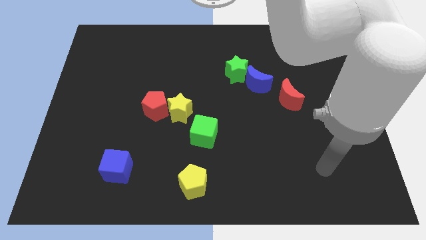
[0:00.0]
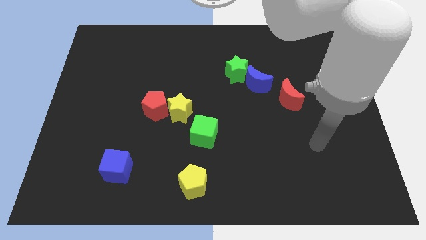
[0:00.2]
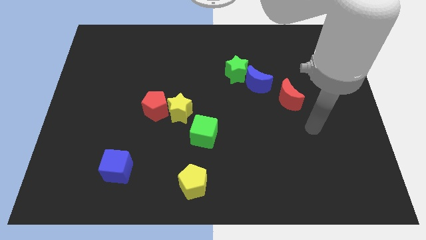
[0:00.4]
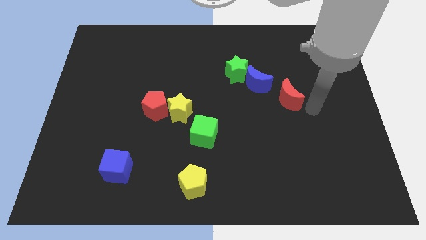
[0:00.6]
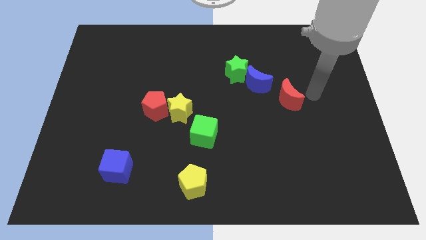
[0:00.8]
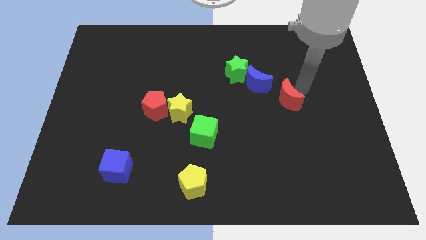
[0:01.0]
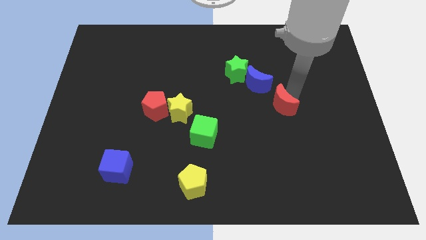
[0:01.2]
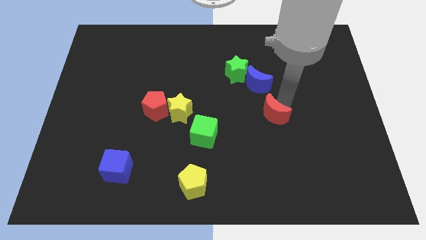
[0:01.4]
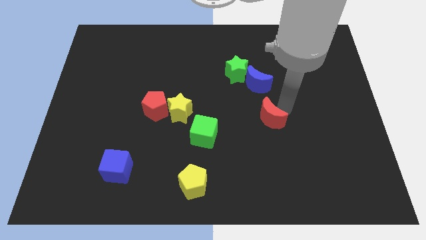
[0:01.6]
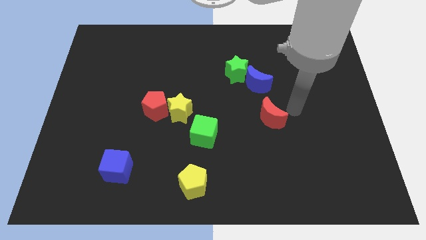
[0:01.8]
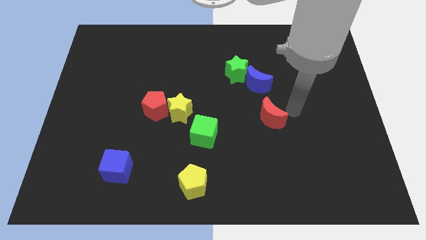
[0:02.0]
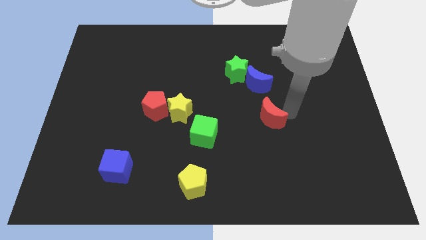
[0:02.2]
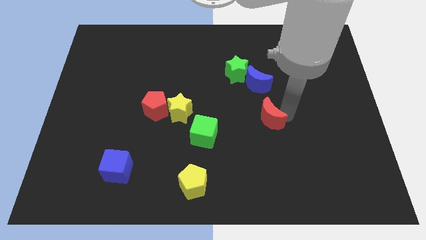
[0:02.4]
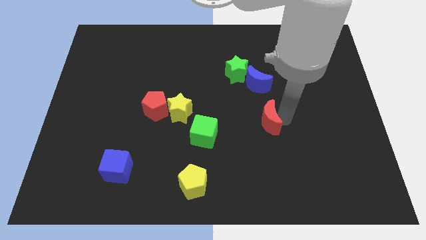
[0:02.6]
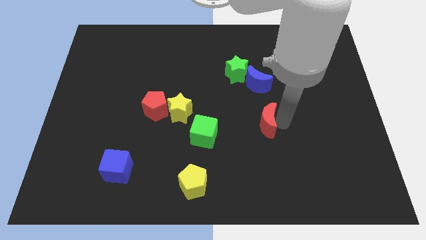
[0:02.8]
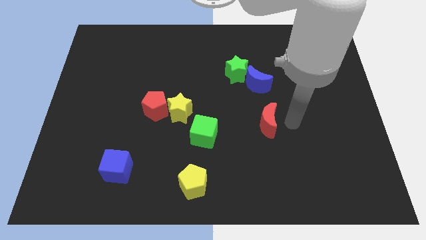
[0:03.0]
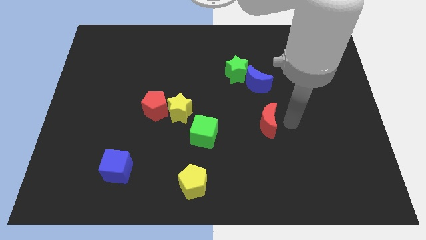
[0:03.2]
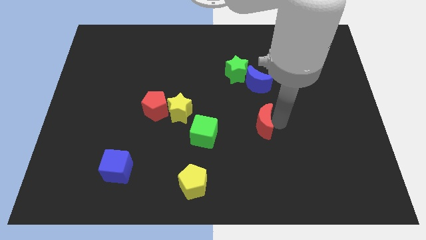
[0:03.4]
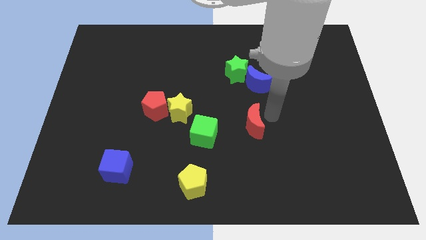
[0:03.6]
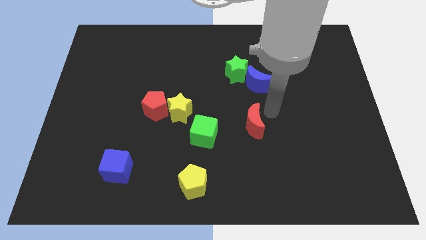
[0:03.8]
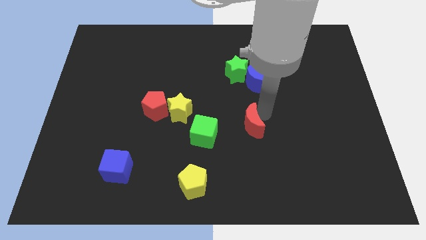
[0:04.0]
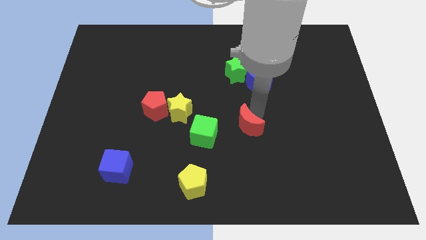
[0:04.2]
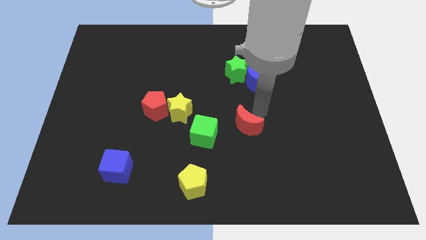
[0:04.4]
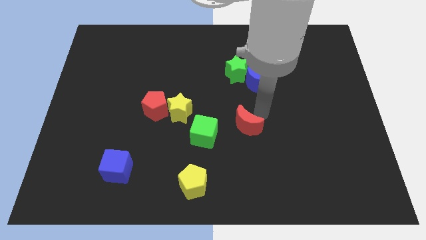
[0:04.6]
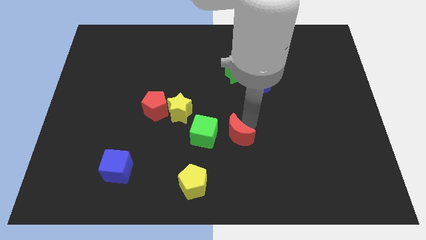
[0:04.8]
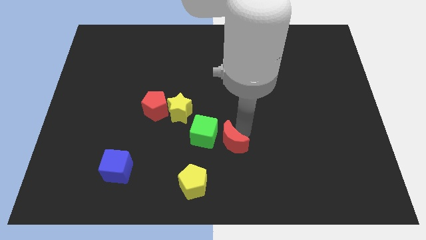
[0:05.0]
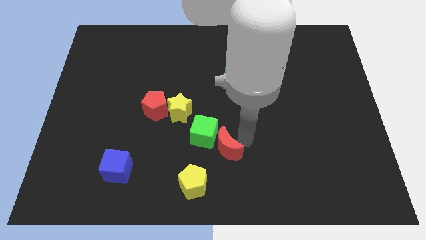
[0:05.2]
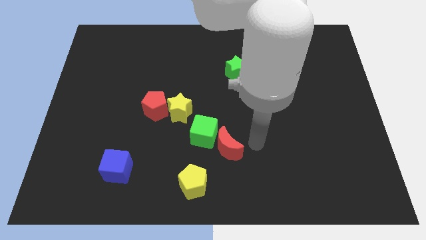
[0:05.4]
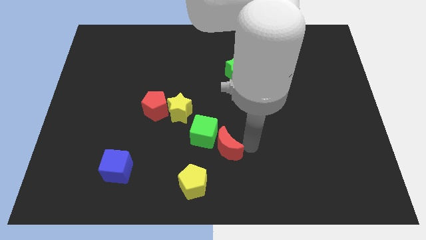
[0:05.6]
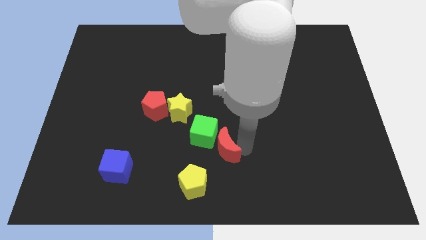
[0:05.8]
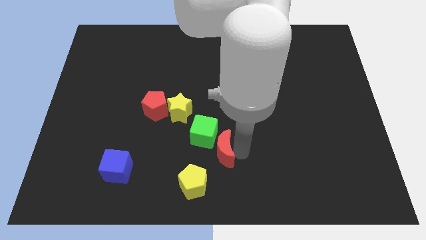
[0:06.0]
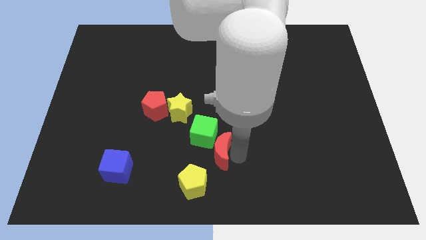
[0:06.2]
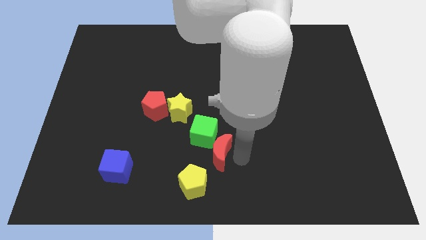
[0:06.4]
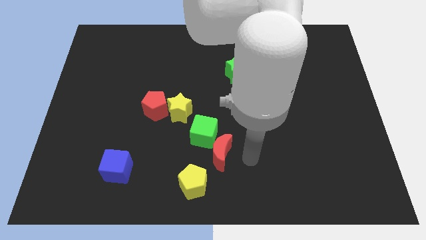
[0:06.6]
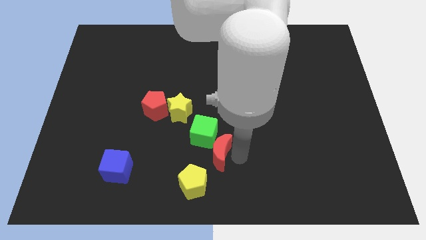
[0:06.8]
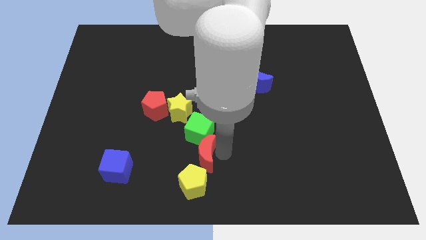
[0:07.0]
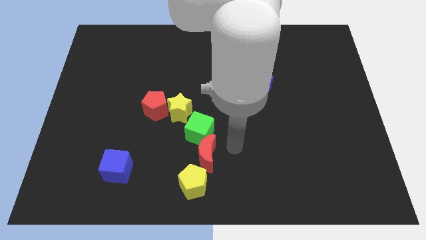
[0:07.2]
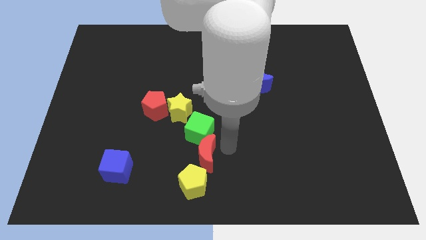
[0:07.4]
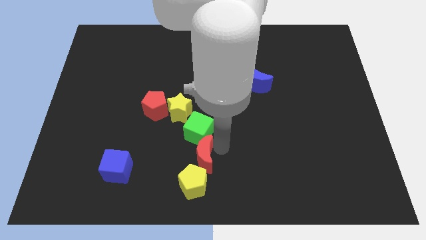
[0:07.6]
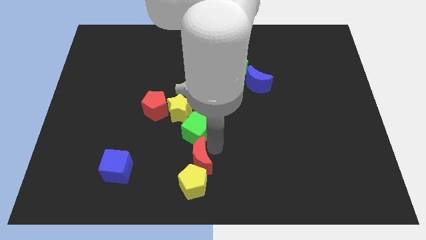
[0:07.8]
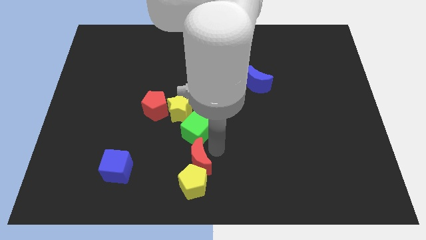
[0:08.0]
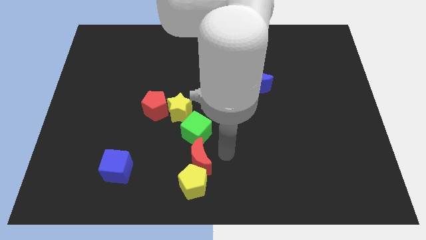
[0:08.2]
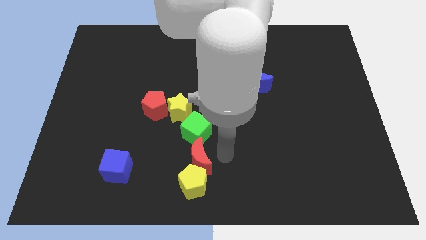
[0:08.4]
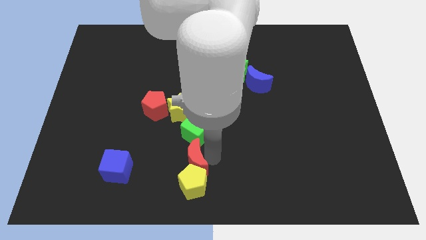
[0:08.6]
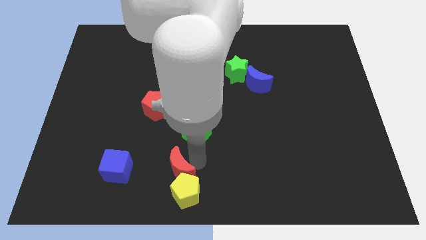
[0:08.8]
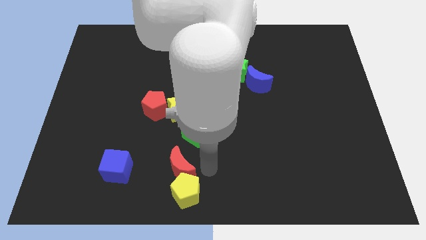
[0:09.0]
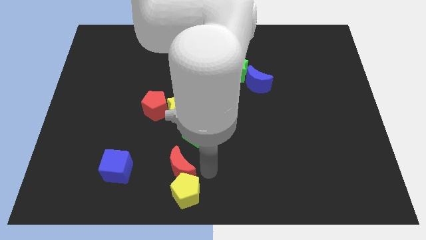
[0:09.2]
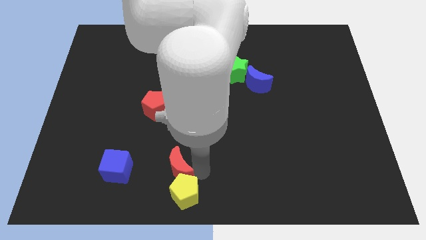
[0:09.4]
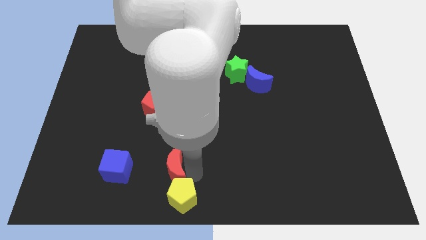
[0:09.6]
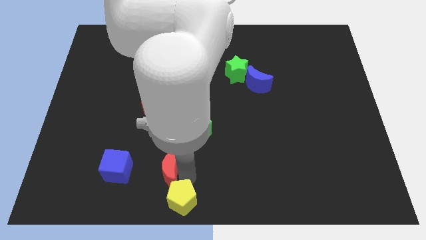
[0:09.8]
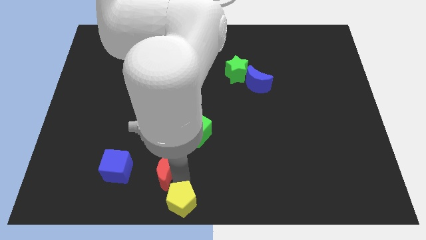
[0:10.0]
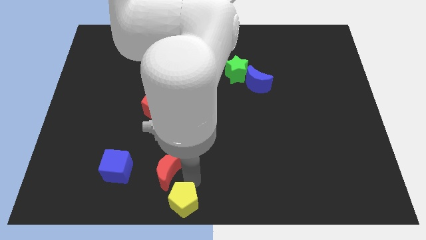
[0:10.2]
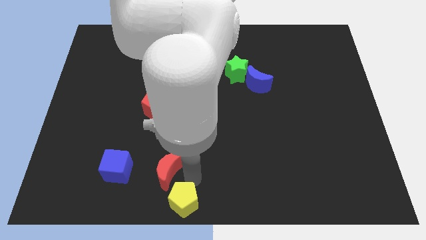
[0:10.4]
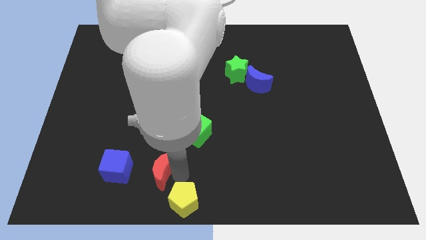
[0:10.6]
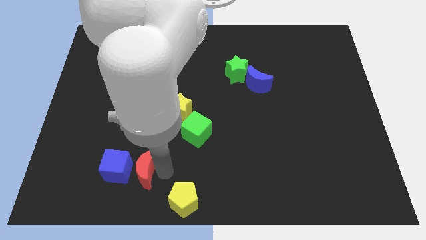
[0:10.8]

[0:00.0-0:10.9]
move the red moon towards the blue cube

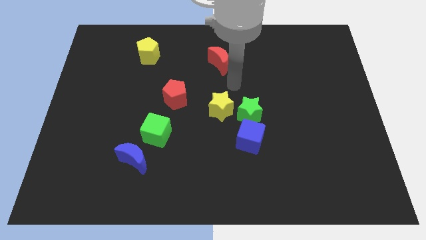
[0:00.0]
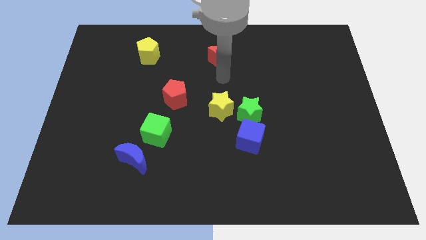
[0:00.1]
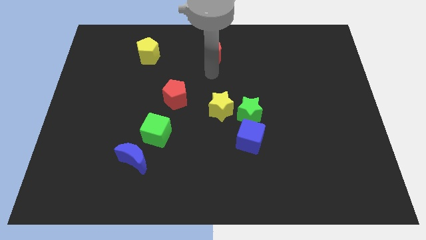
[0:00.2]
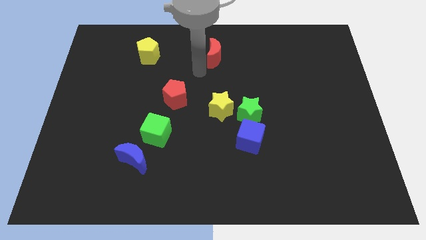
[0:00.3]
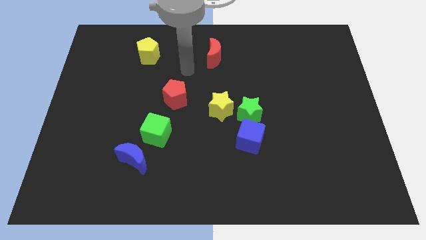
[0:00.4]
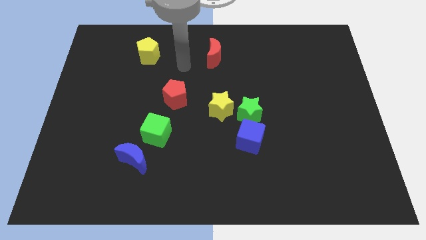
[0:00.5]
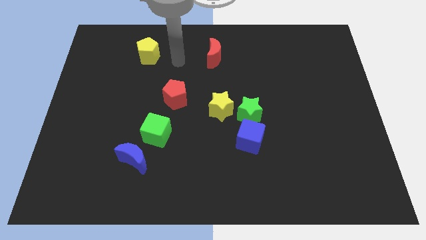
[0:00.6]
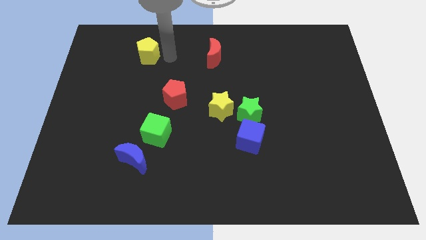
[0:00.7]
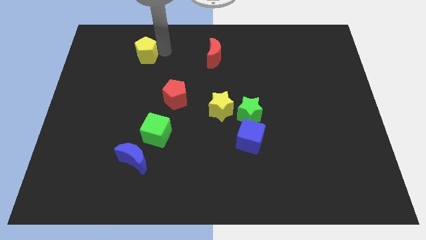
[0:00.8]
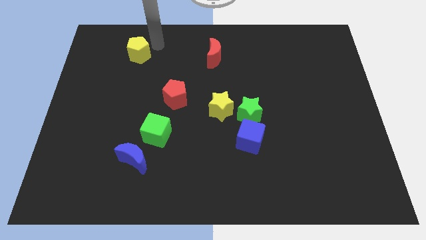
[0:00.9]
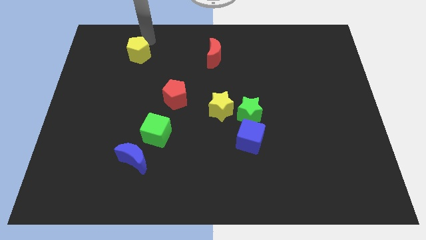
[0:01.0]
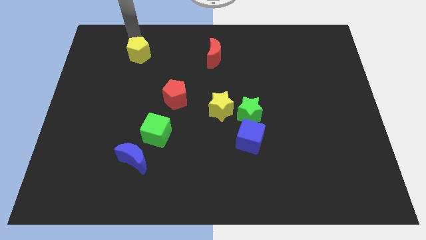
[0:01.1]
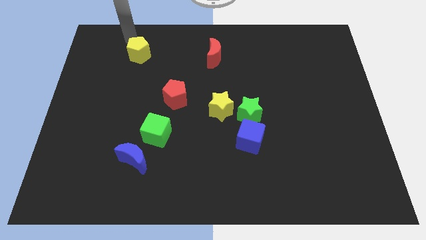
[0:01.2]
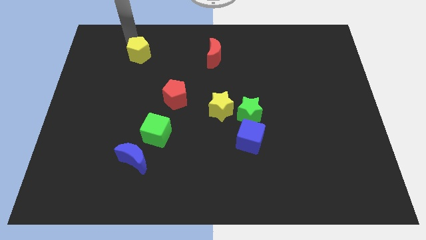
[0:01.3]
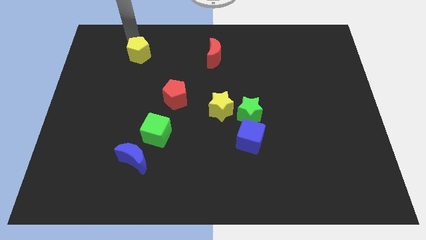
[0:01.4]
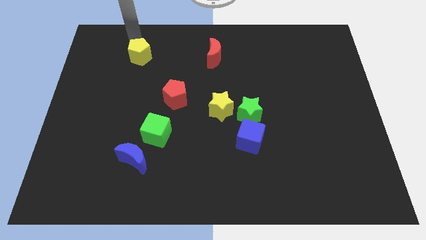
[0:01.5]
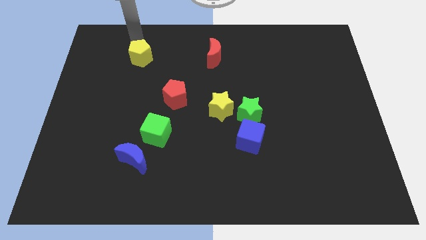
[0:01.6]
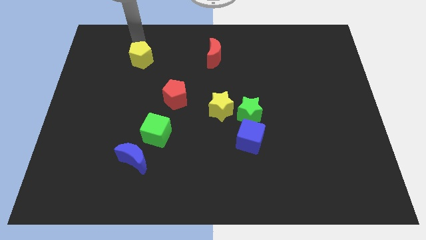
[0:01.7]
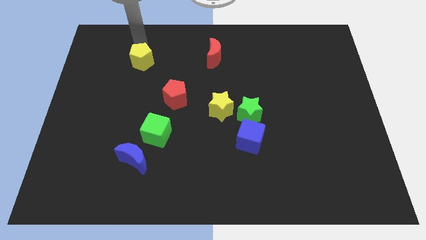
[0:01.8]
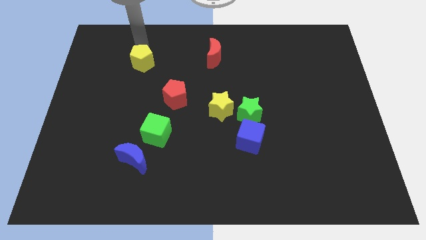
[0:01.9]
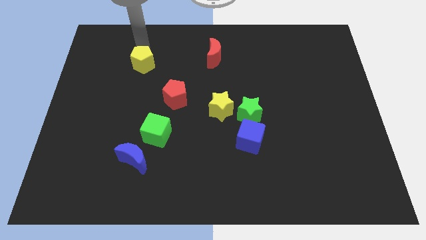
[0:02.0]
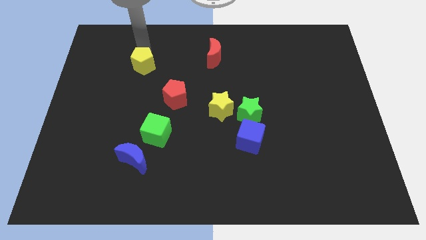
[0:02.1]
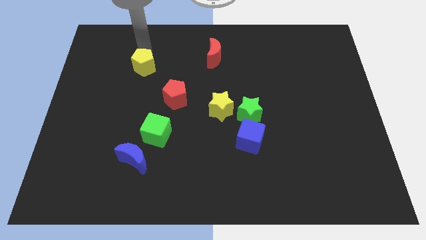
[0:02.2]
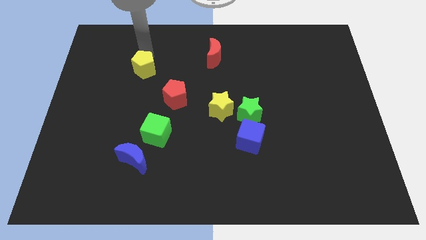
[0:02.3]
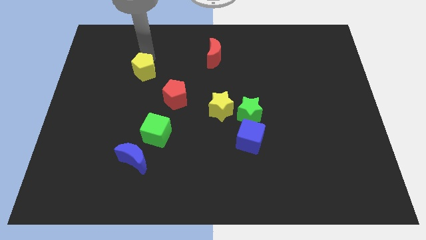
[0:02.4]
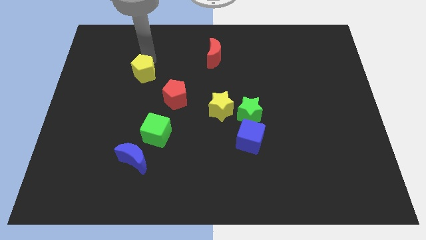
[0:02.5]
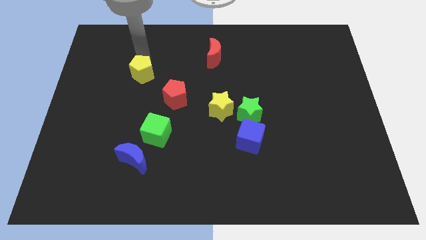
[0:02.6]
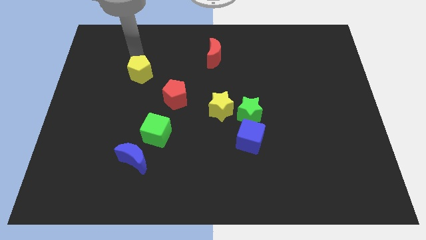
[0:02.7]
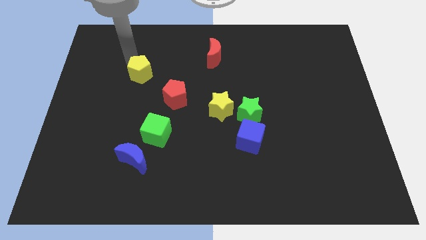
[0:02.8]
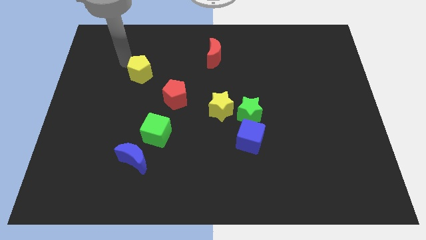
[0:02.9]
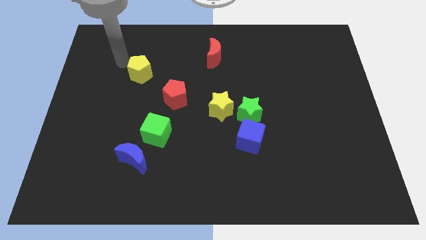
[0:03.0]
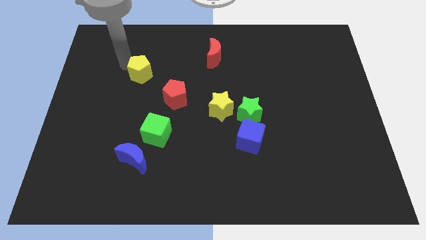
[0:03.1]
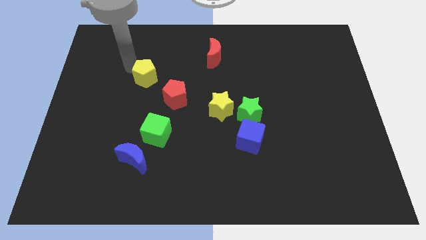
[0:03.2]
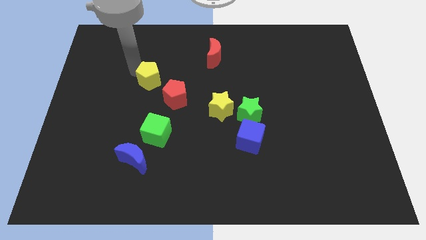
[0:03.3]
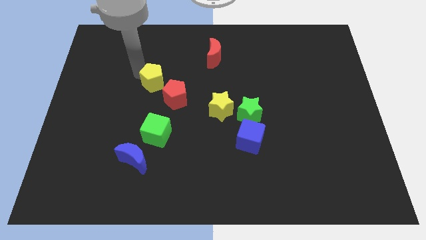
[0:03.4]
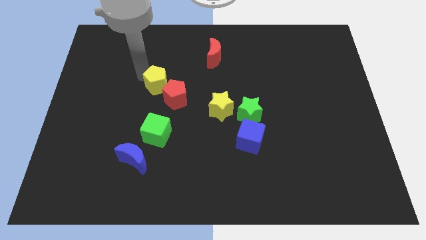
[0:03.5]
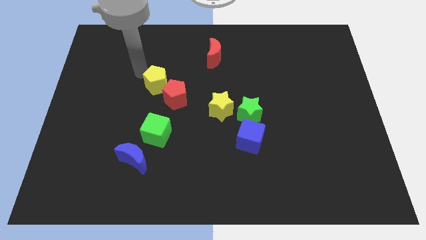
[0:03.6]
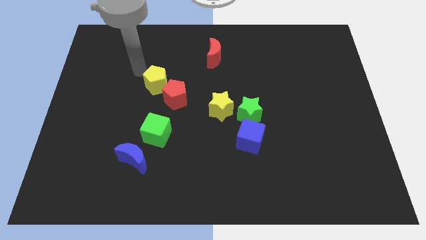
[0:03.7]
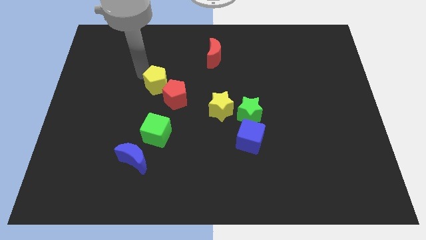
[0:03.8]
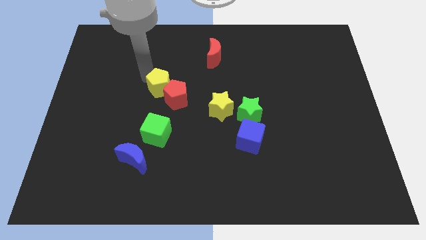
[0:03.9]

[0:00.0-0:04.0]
move the yellow pentagon to the red pentagon
